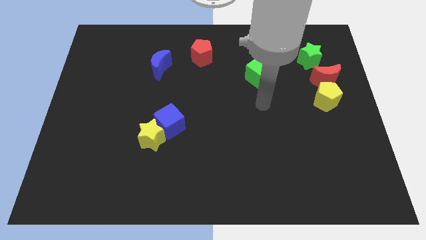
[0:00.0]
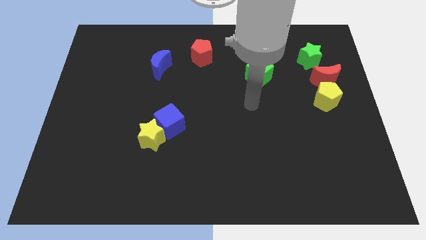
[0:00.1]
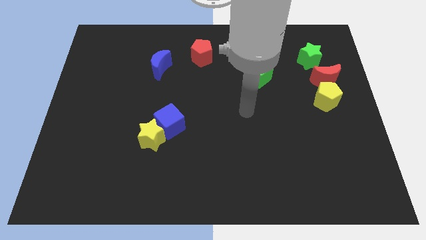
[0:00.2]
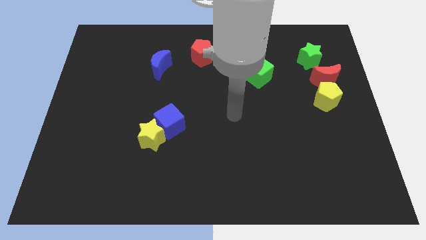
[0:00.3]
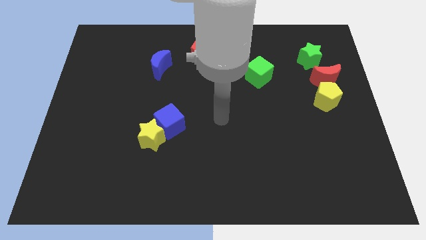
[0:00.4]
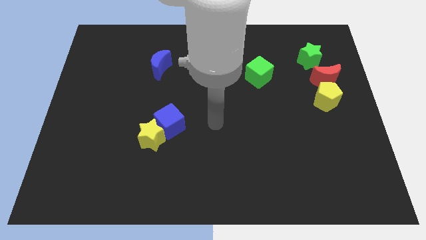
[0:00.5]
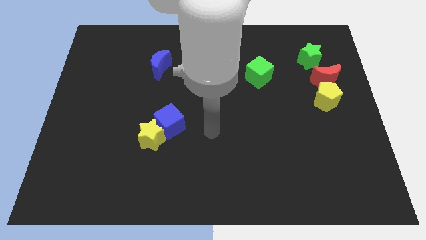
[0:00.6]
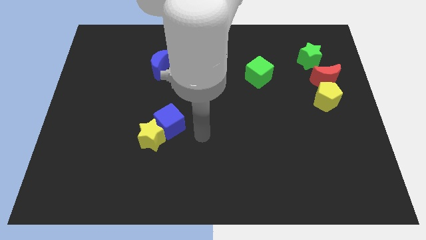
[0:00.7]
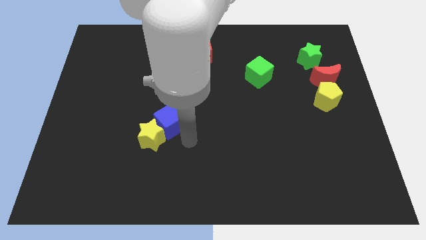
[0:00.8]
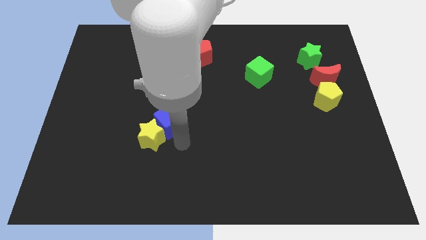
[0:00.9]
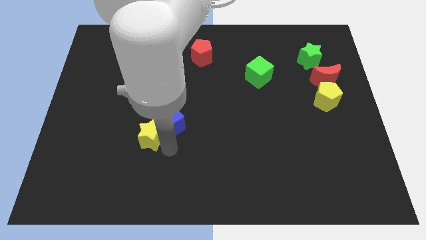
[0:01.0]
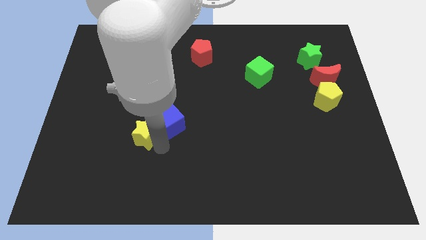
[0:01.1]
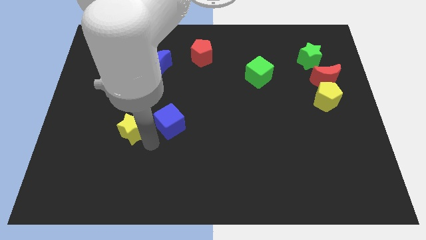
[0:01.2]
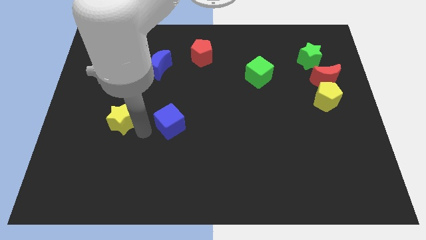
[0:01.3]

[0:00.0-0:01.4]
separate the blue cube from the yellow star

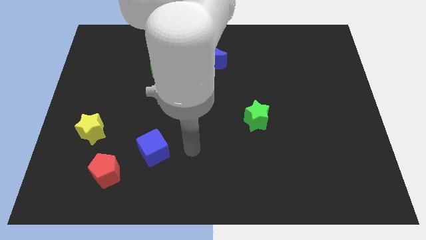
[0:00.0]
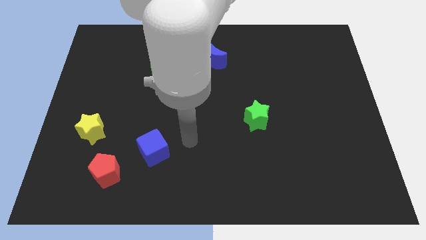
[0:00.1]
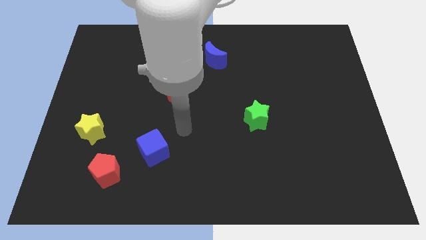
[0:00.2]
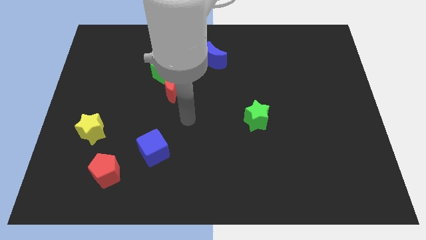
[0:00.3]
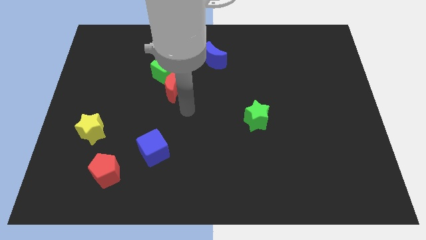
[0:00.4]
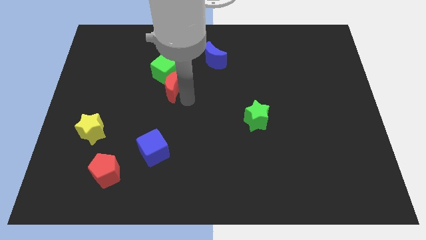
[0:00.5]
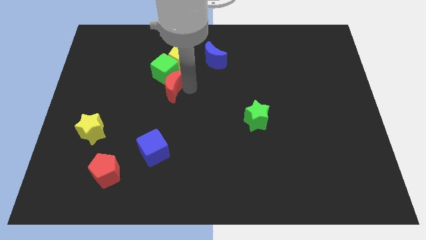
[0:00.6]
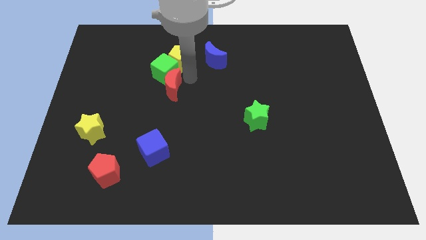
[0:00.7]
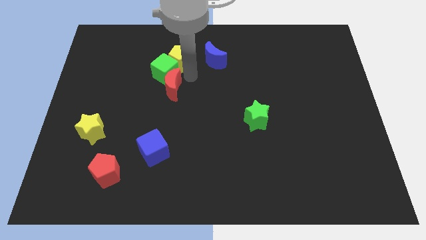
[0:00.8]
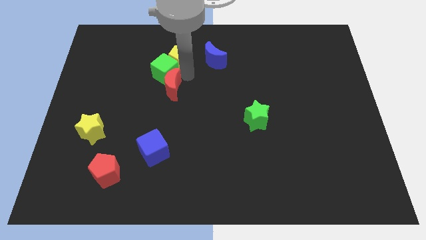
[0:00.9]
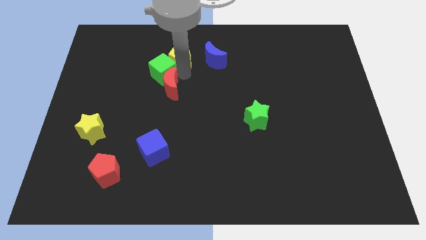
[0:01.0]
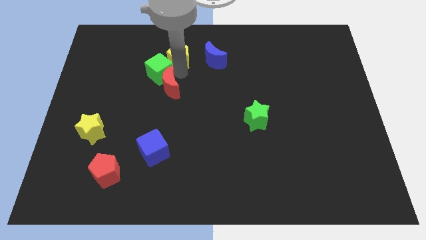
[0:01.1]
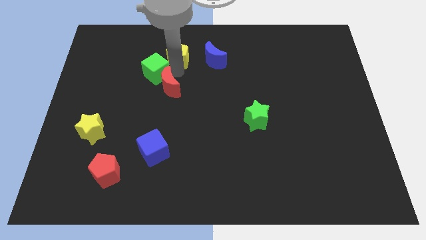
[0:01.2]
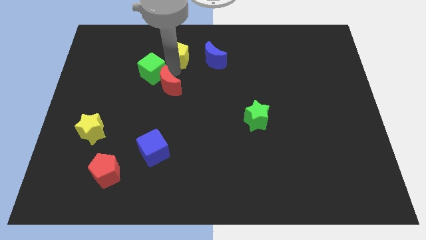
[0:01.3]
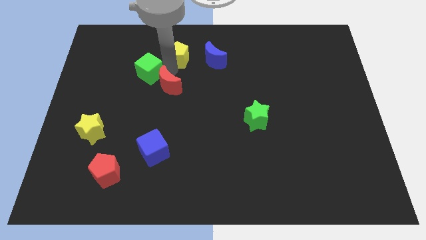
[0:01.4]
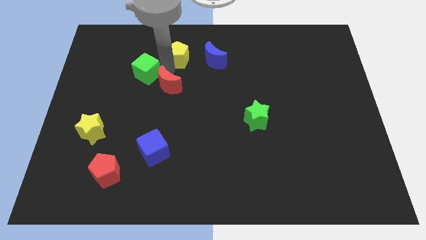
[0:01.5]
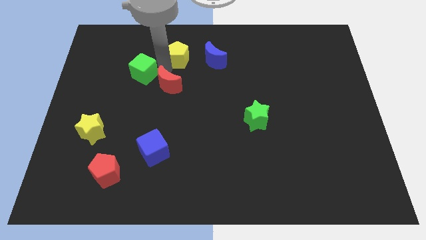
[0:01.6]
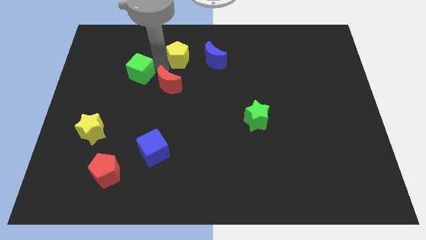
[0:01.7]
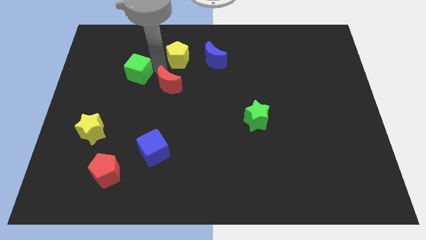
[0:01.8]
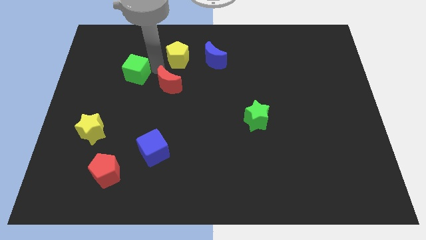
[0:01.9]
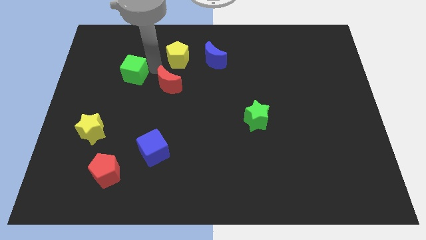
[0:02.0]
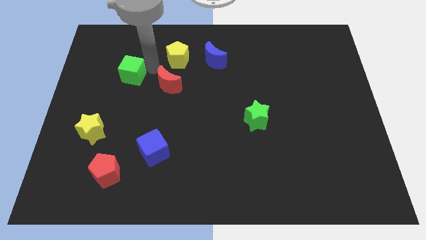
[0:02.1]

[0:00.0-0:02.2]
separate the green cube from the yellow pentagon and red moon

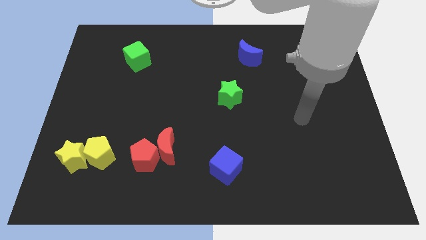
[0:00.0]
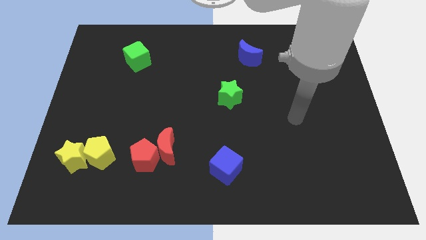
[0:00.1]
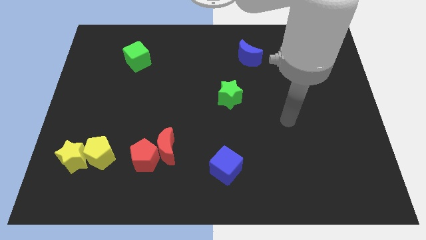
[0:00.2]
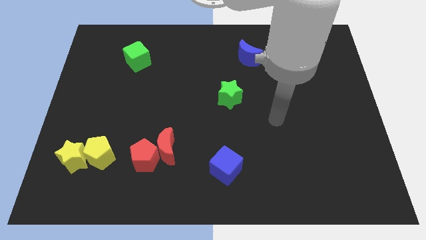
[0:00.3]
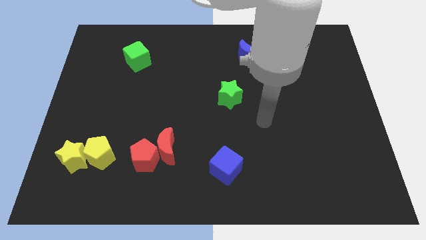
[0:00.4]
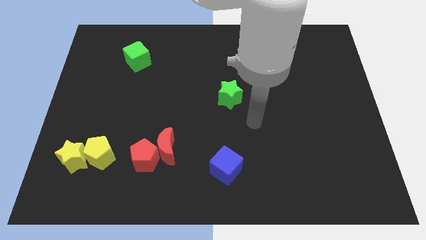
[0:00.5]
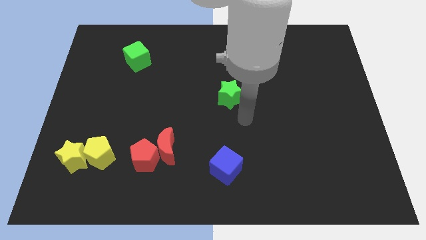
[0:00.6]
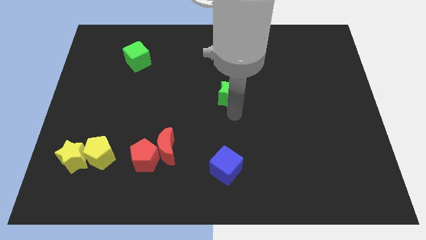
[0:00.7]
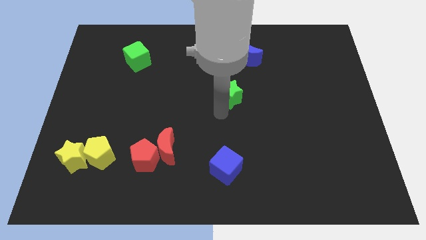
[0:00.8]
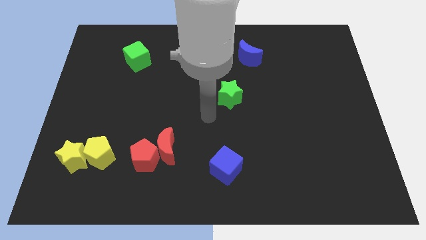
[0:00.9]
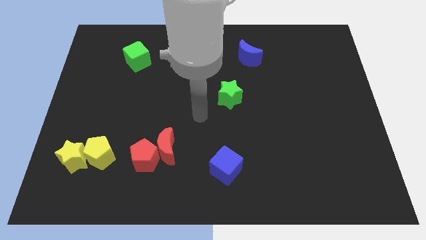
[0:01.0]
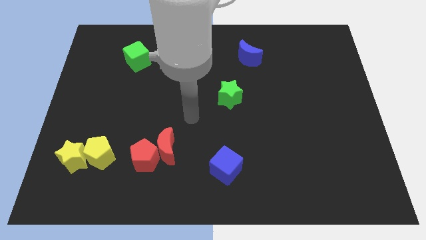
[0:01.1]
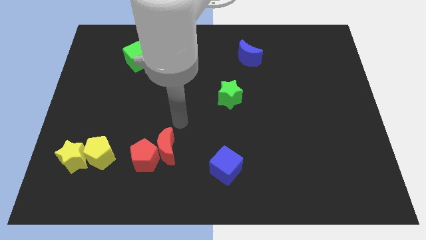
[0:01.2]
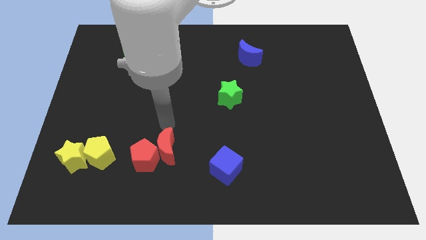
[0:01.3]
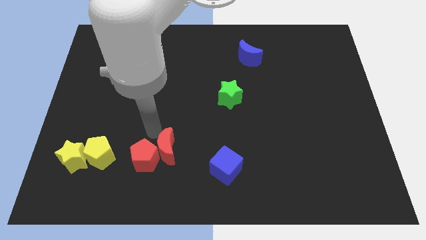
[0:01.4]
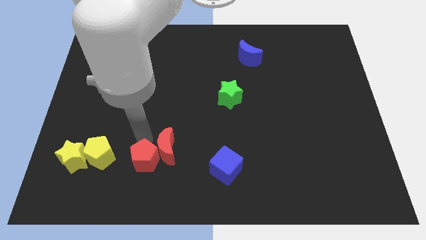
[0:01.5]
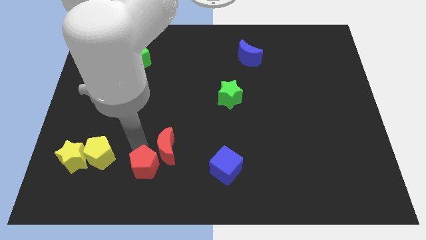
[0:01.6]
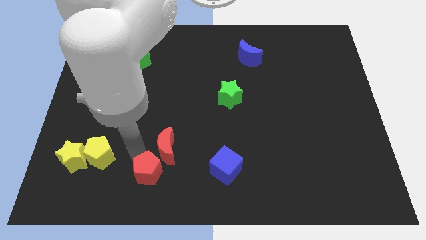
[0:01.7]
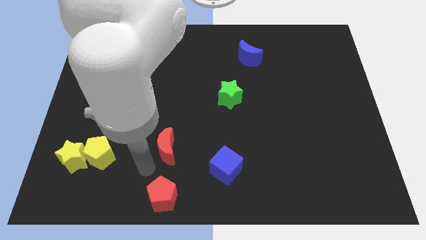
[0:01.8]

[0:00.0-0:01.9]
separate the red moon from the red pentagon

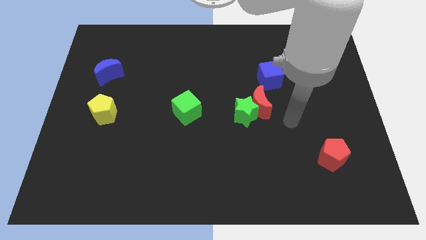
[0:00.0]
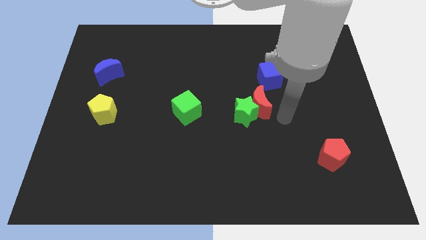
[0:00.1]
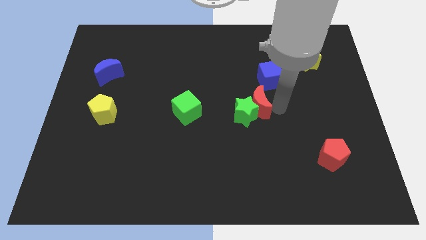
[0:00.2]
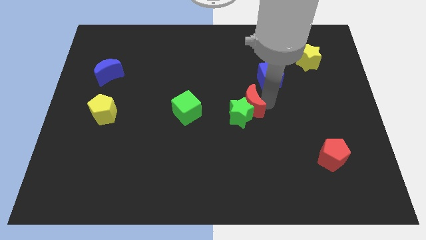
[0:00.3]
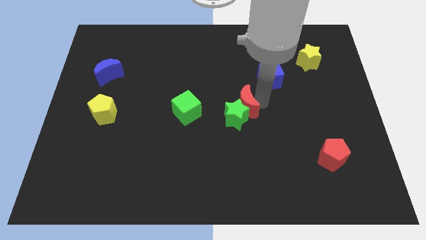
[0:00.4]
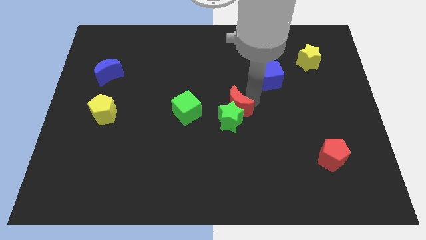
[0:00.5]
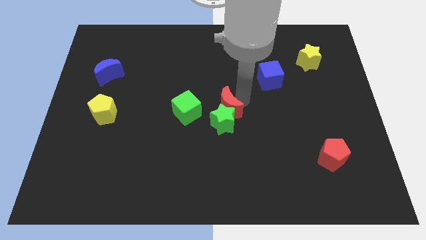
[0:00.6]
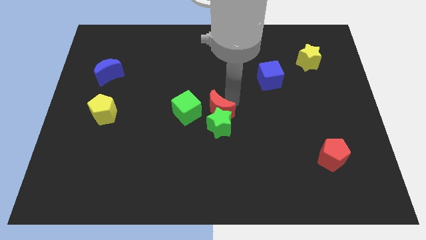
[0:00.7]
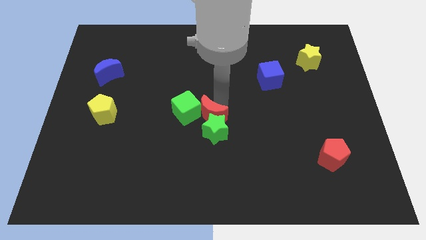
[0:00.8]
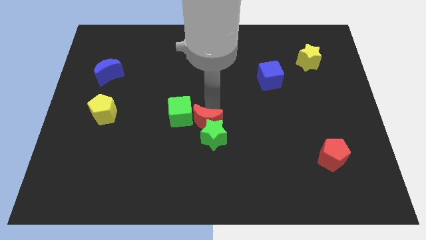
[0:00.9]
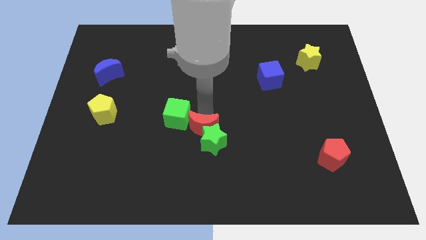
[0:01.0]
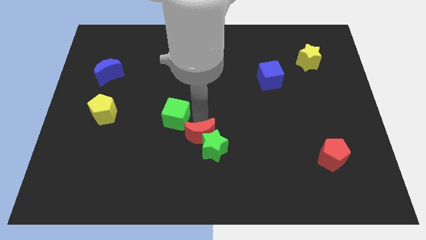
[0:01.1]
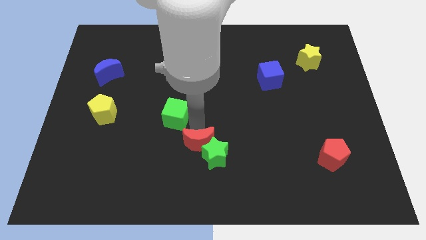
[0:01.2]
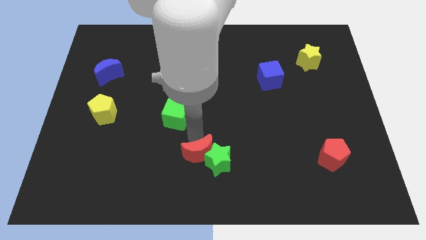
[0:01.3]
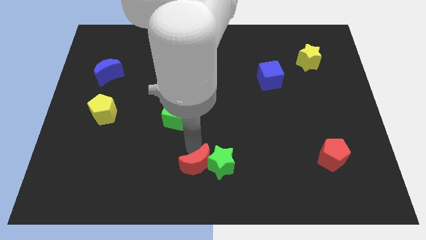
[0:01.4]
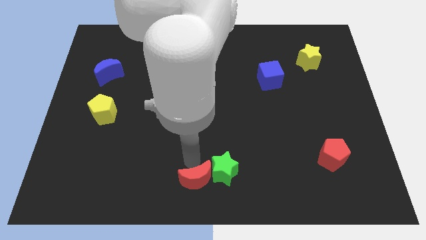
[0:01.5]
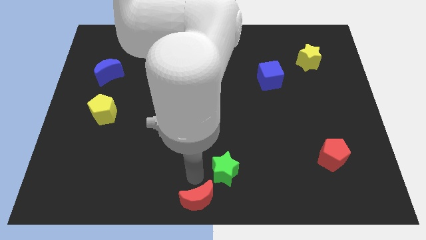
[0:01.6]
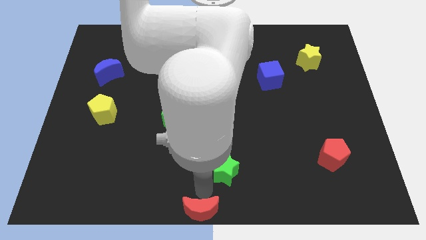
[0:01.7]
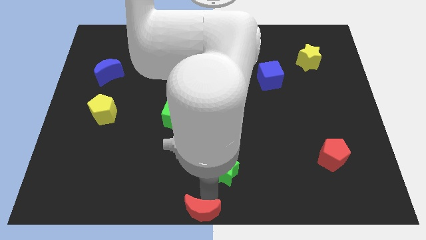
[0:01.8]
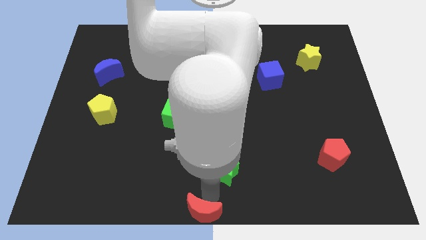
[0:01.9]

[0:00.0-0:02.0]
pull the green star apart from the red moon

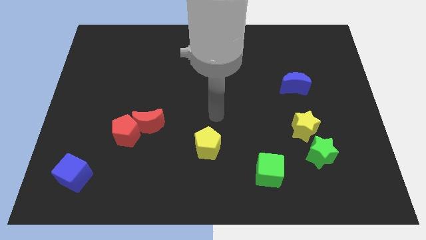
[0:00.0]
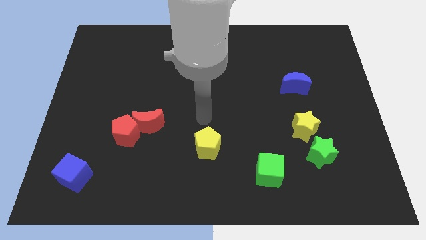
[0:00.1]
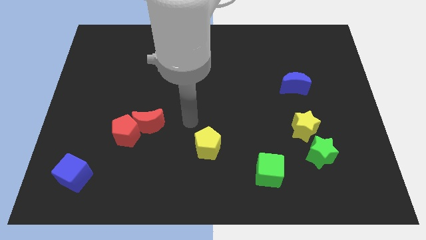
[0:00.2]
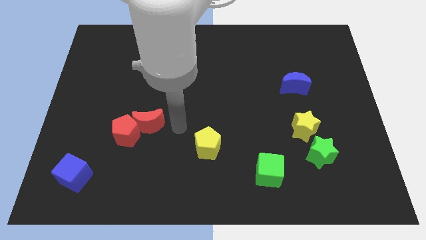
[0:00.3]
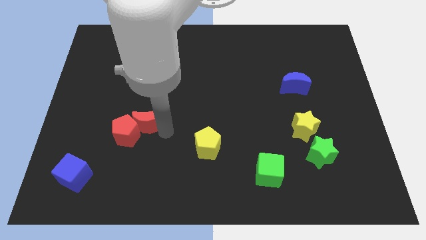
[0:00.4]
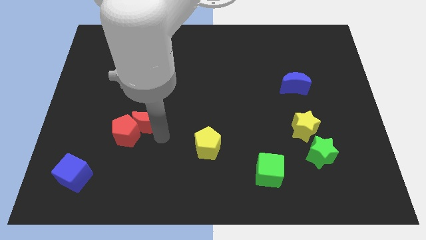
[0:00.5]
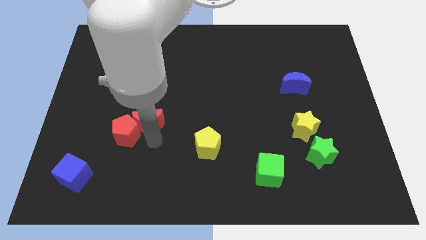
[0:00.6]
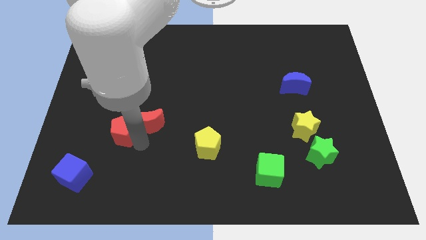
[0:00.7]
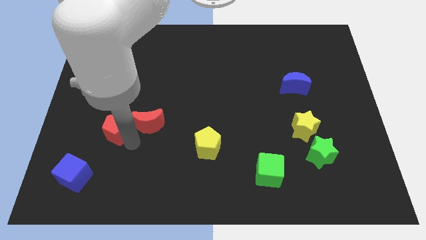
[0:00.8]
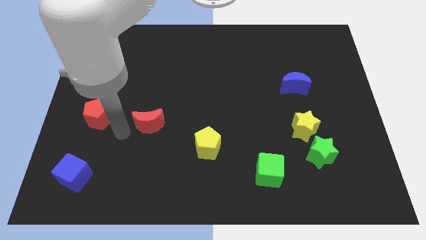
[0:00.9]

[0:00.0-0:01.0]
pull the red moon apart from the red pentagon

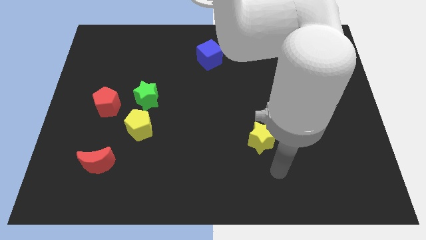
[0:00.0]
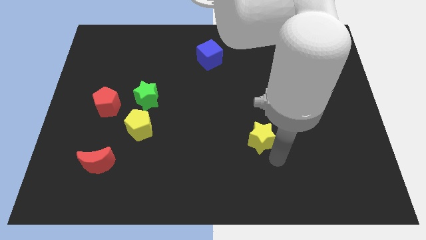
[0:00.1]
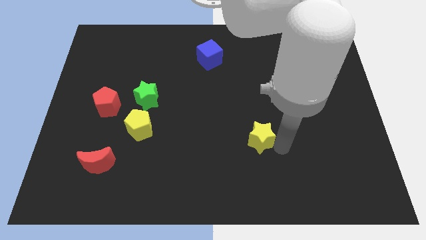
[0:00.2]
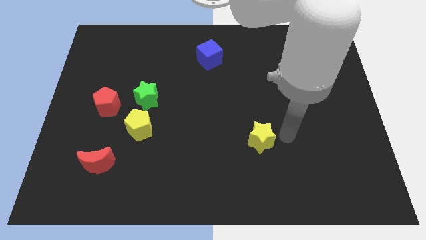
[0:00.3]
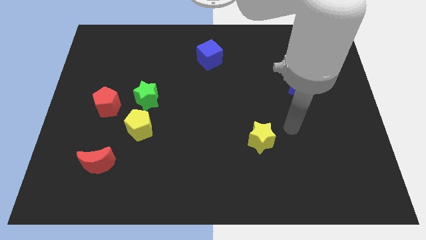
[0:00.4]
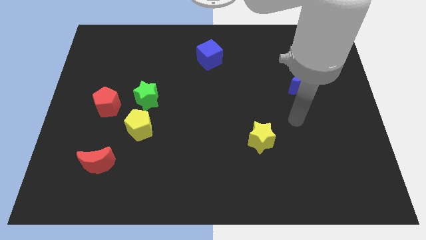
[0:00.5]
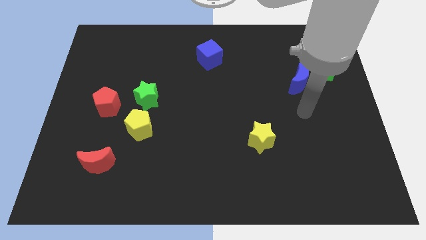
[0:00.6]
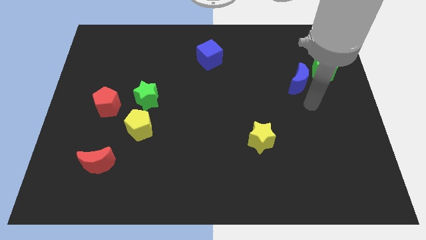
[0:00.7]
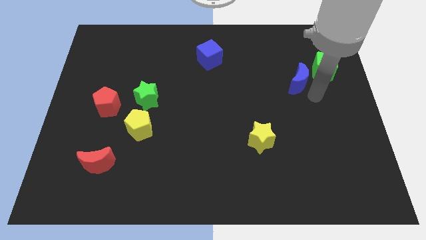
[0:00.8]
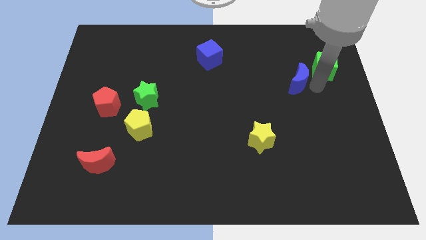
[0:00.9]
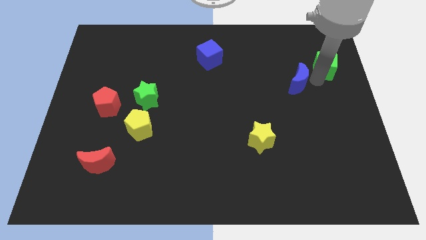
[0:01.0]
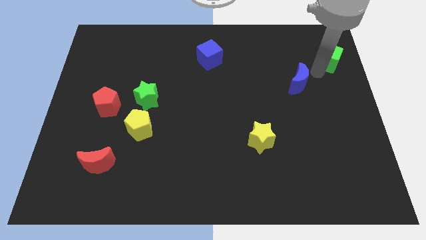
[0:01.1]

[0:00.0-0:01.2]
separate the blue moon from the green cube
